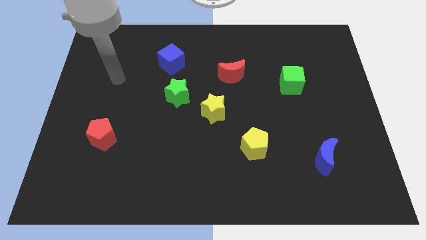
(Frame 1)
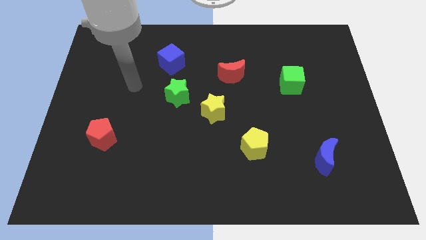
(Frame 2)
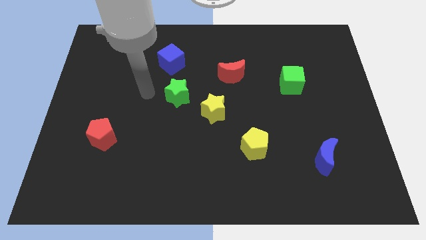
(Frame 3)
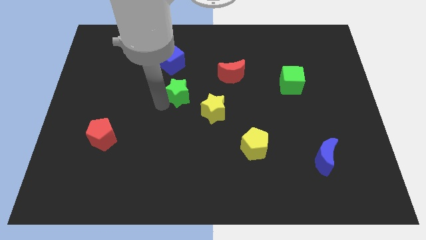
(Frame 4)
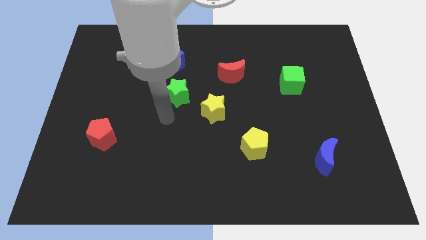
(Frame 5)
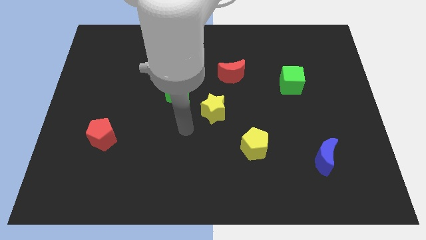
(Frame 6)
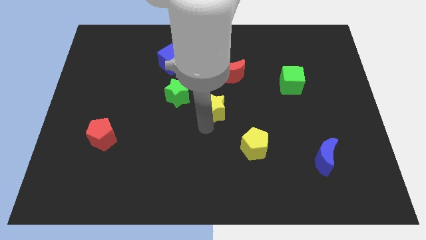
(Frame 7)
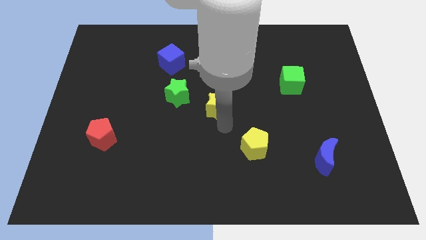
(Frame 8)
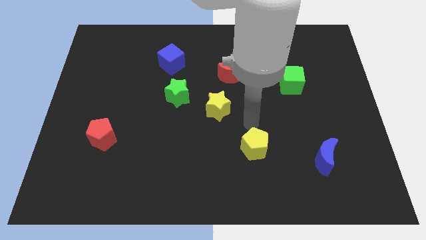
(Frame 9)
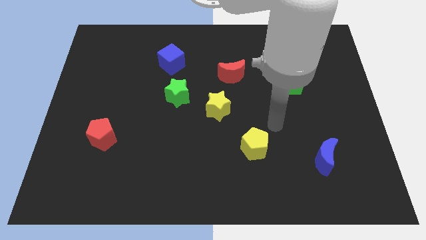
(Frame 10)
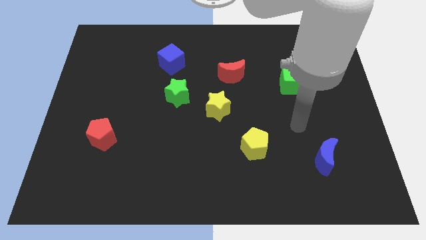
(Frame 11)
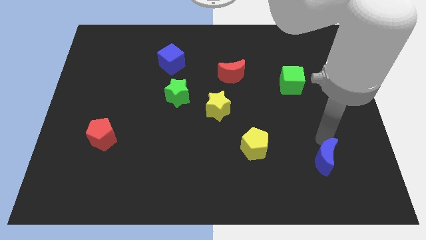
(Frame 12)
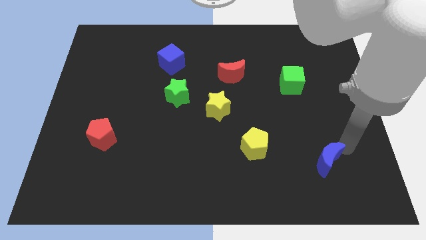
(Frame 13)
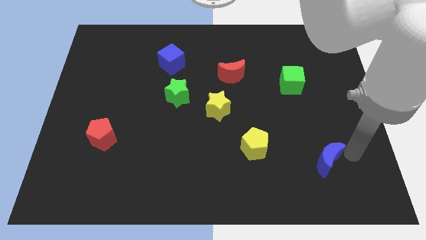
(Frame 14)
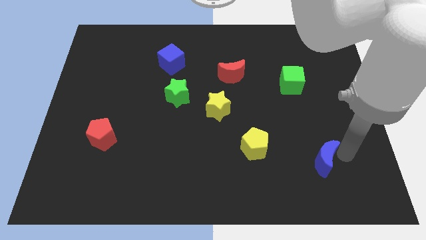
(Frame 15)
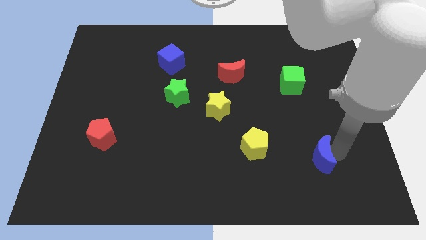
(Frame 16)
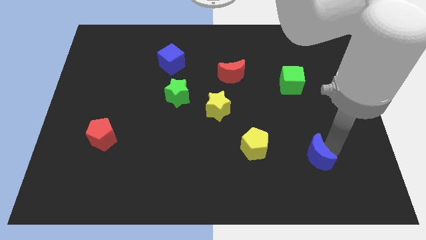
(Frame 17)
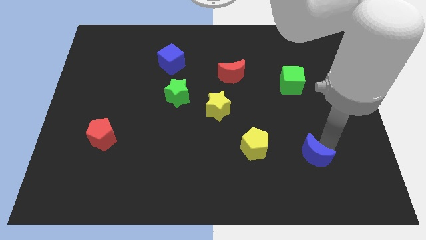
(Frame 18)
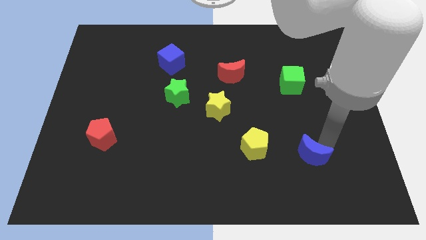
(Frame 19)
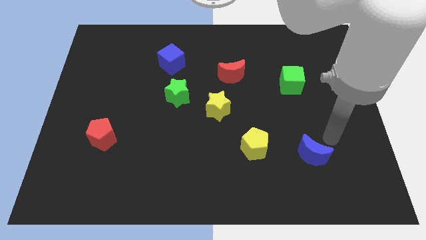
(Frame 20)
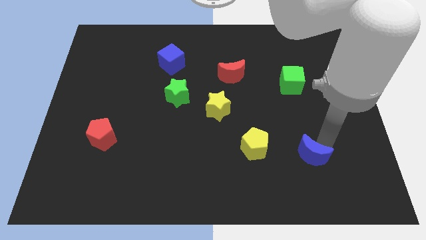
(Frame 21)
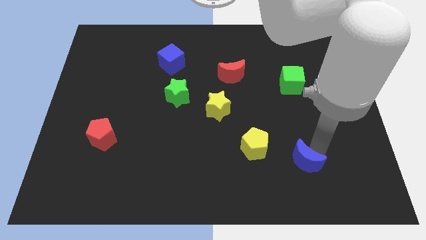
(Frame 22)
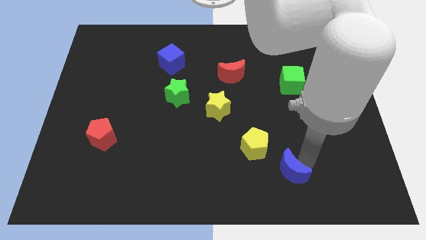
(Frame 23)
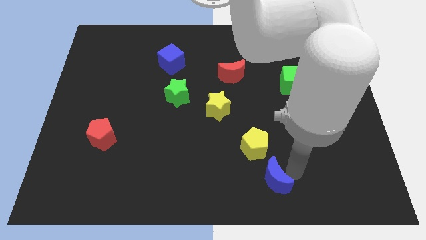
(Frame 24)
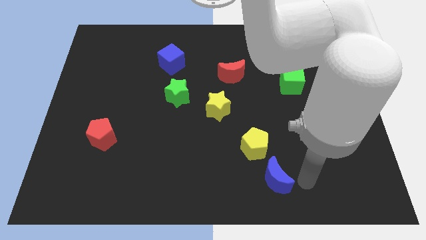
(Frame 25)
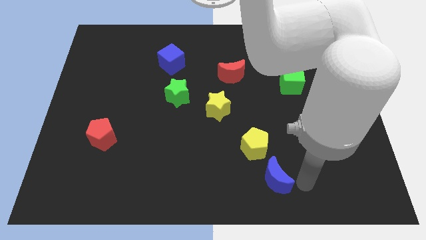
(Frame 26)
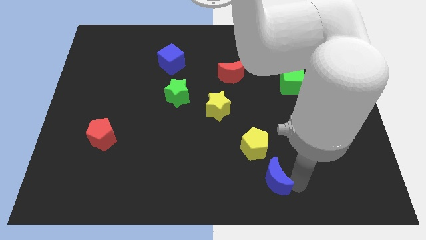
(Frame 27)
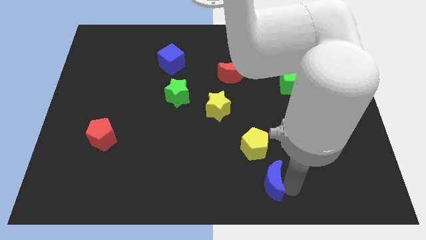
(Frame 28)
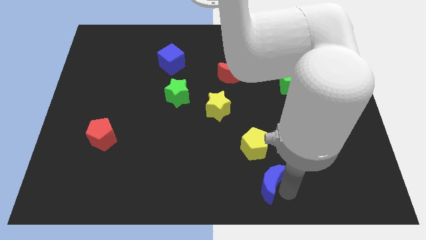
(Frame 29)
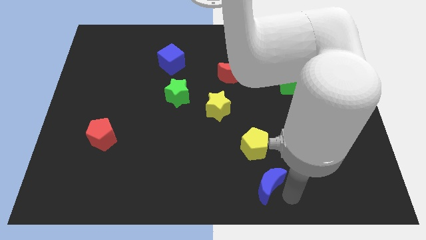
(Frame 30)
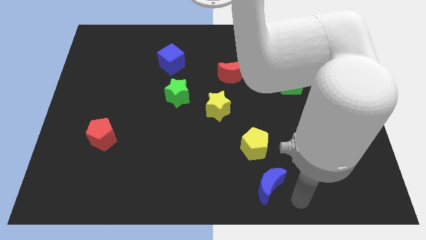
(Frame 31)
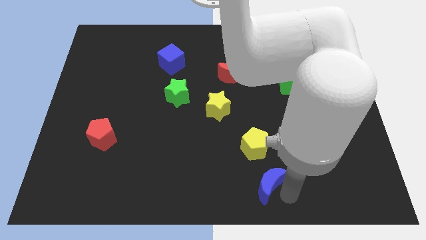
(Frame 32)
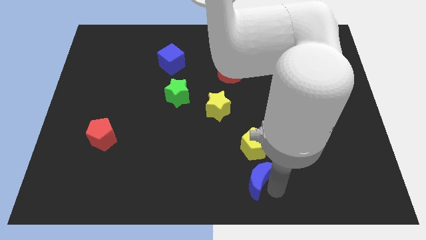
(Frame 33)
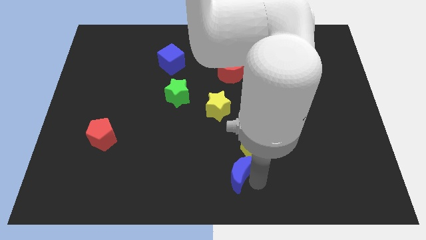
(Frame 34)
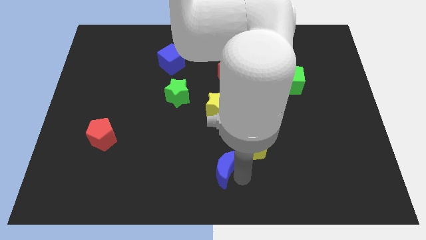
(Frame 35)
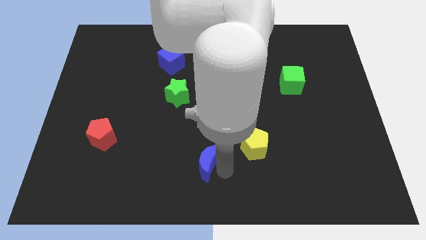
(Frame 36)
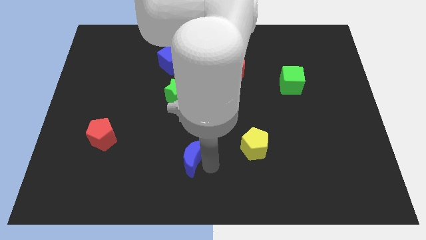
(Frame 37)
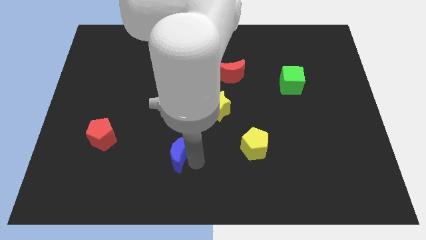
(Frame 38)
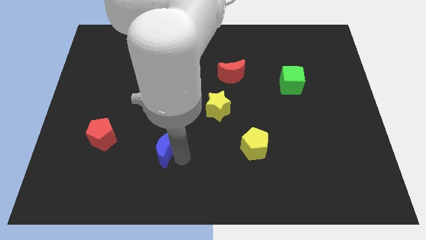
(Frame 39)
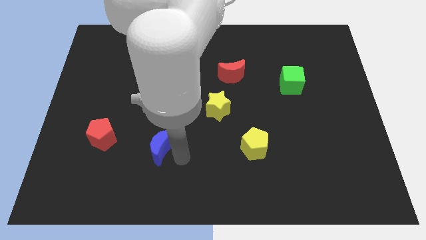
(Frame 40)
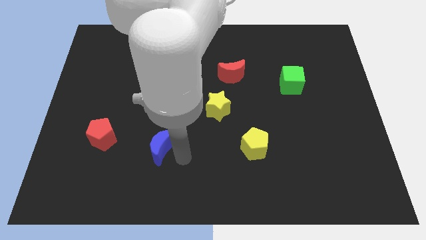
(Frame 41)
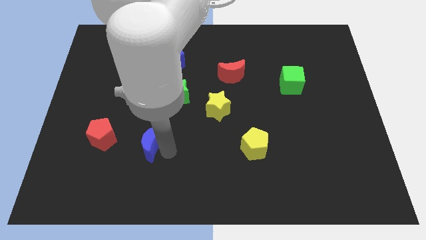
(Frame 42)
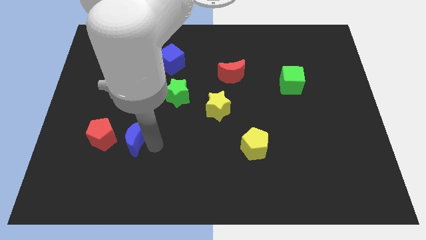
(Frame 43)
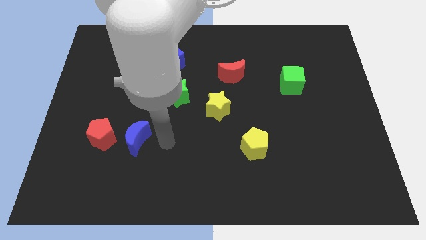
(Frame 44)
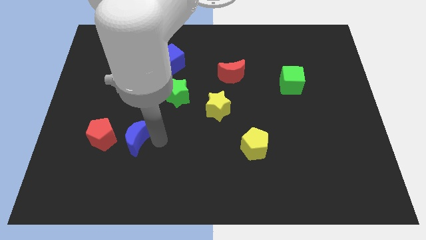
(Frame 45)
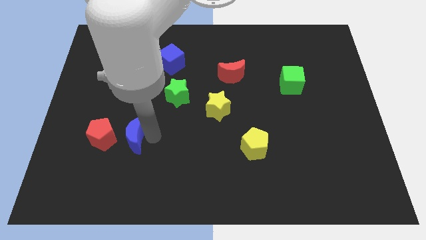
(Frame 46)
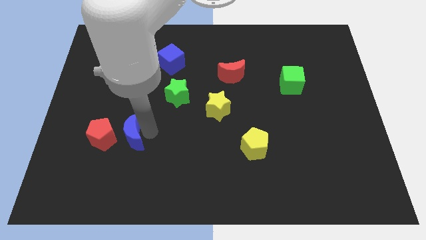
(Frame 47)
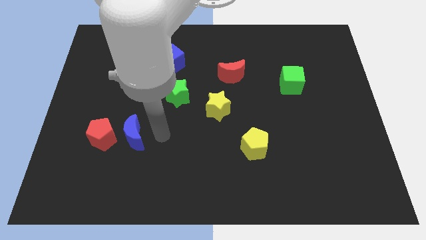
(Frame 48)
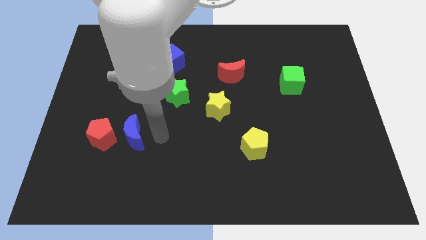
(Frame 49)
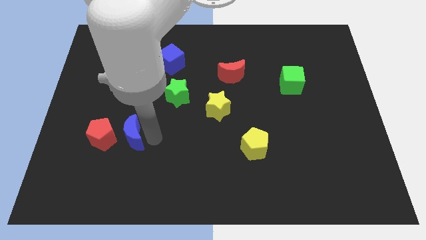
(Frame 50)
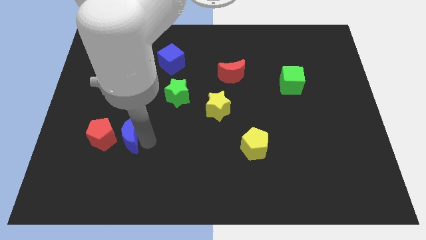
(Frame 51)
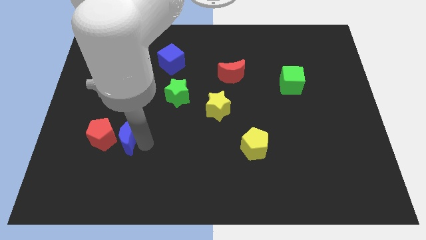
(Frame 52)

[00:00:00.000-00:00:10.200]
push the blue moon next to the red pentagon

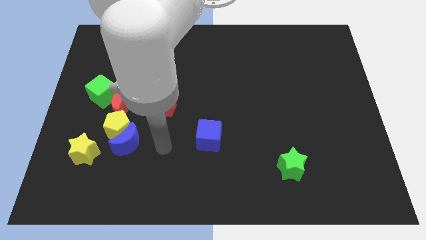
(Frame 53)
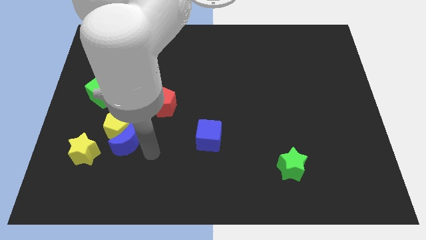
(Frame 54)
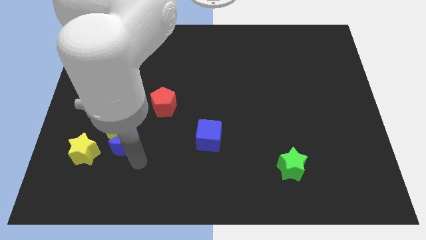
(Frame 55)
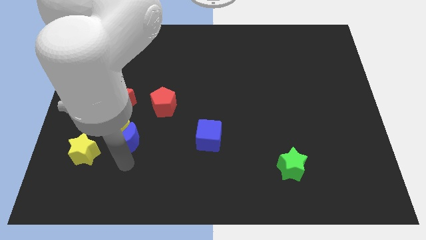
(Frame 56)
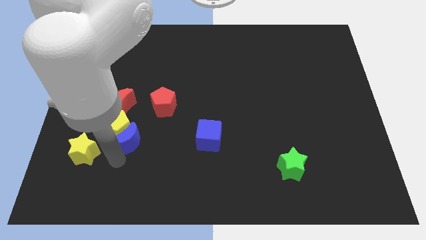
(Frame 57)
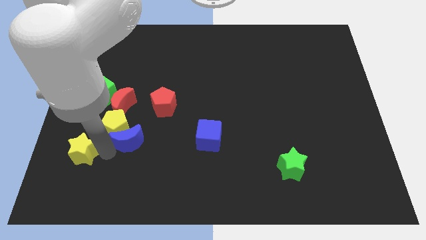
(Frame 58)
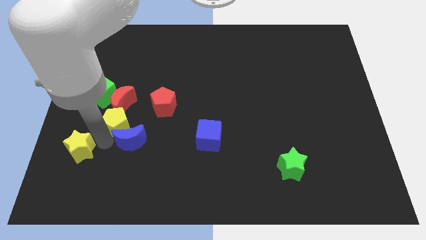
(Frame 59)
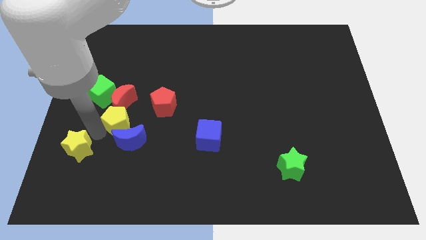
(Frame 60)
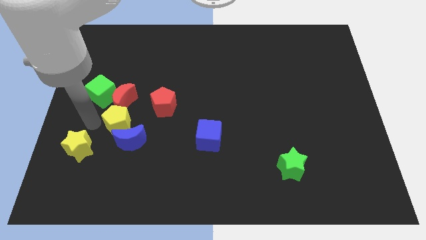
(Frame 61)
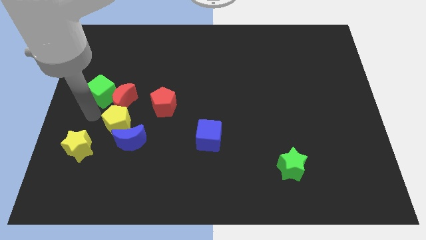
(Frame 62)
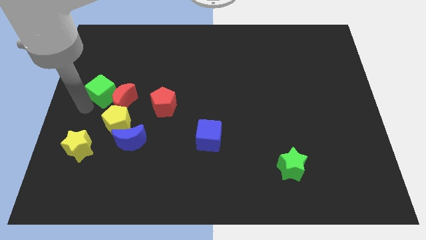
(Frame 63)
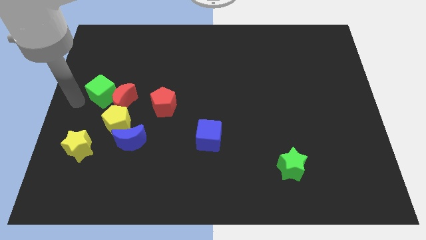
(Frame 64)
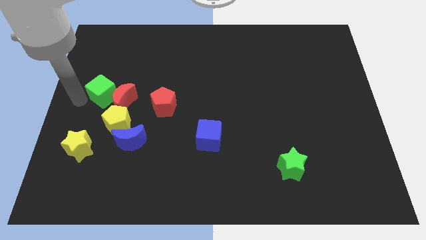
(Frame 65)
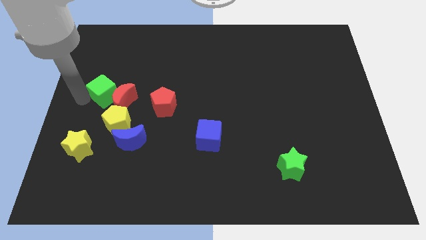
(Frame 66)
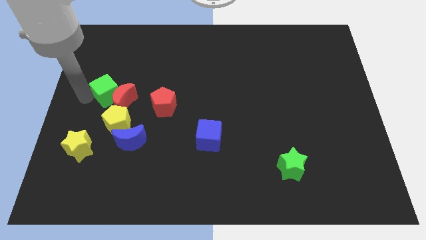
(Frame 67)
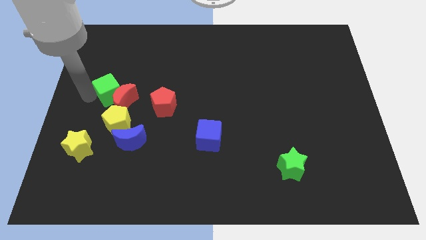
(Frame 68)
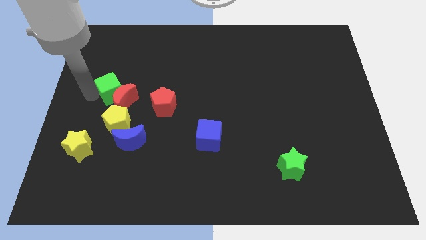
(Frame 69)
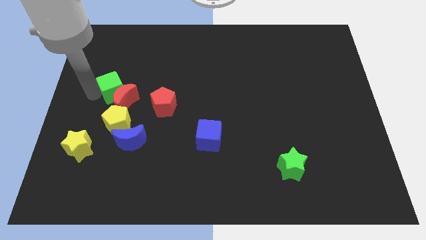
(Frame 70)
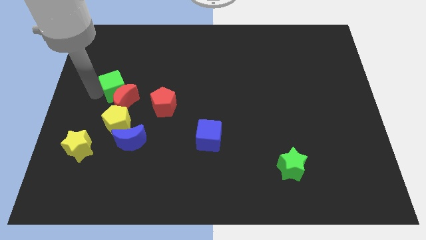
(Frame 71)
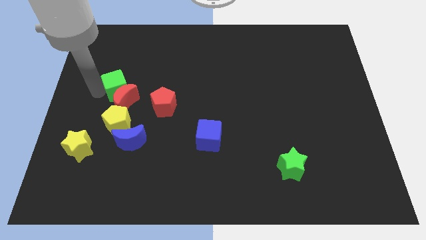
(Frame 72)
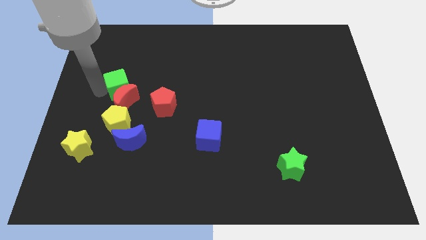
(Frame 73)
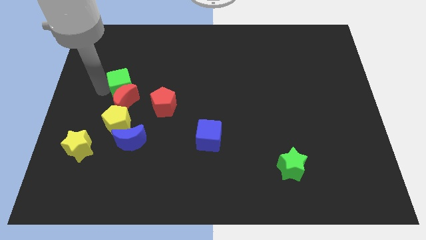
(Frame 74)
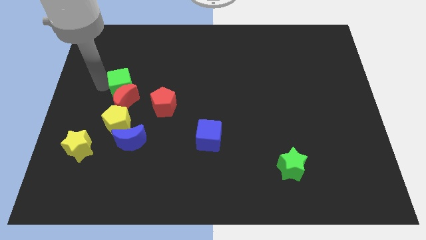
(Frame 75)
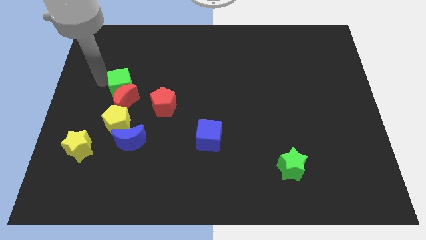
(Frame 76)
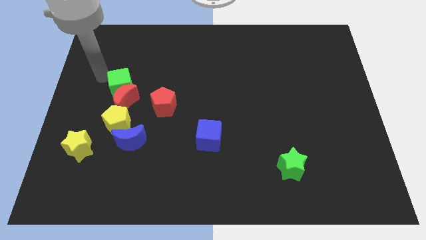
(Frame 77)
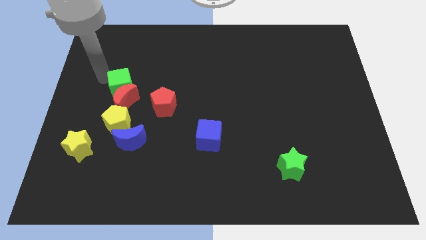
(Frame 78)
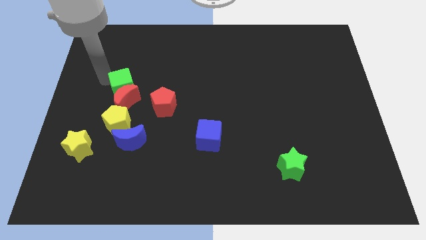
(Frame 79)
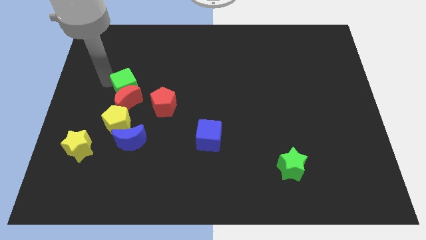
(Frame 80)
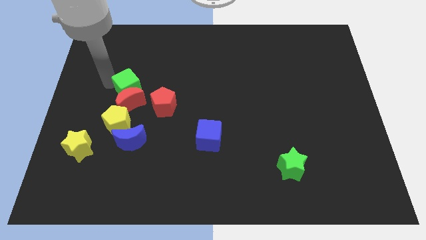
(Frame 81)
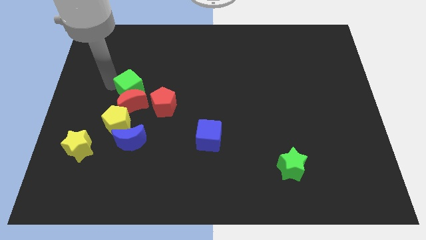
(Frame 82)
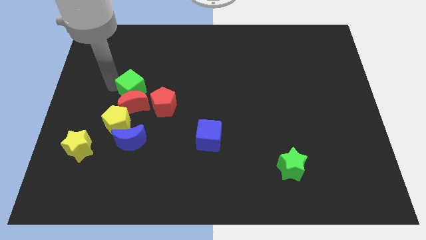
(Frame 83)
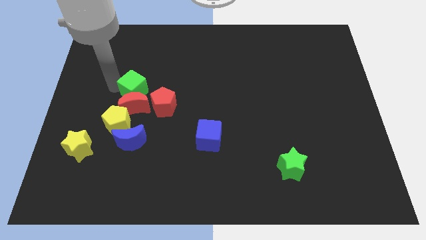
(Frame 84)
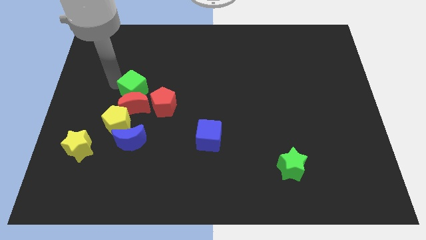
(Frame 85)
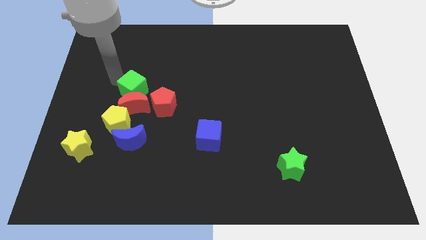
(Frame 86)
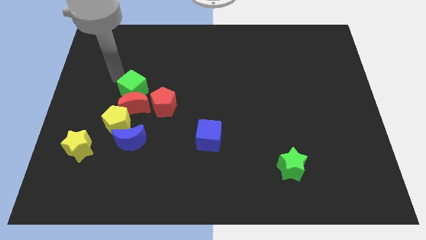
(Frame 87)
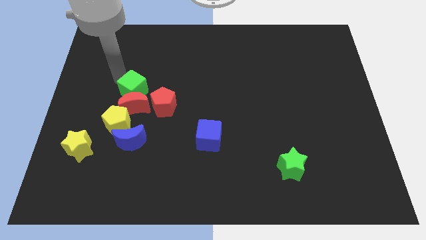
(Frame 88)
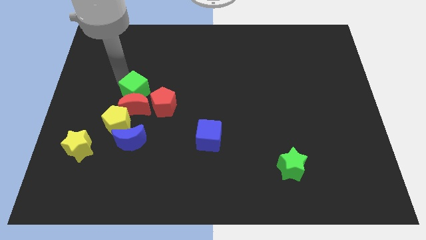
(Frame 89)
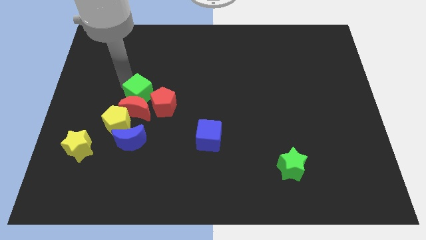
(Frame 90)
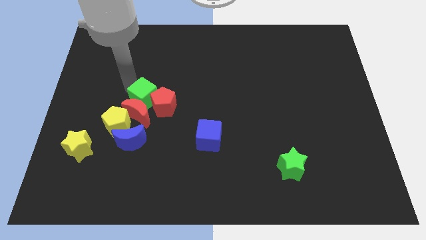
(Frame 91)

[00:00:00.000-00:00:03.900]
push the green cube next to the red pentagon
